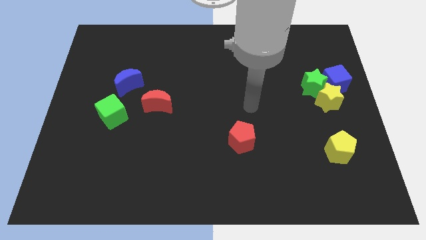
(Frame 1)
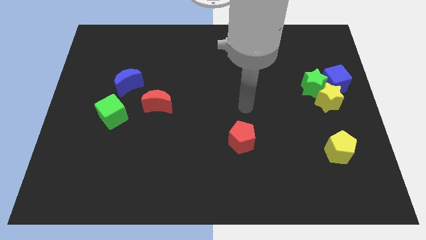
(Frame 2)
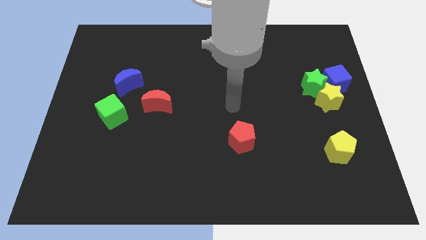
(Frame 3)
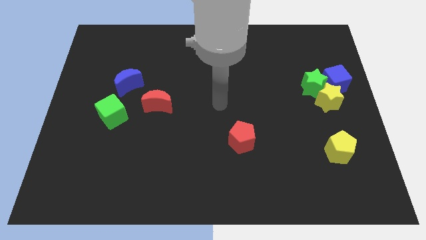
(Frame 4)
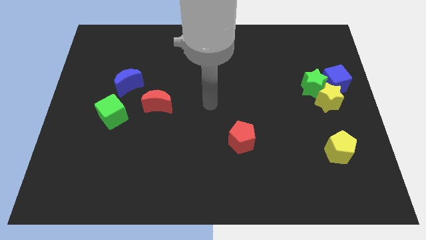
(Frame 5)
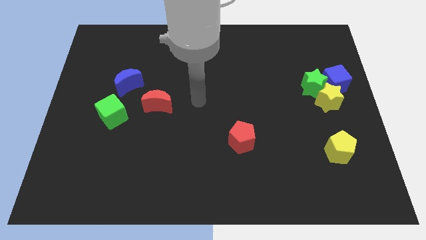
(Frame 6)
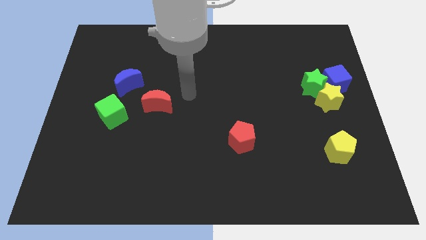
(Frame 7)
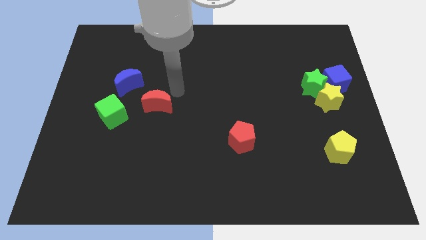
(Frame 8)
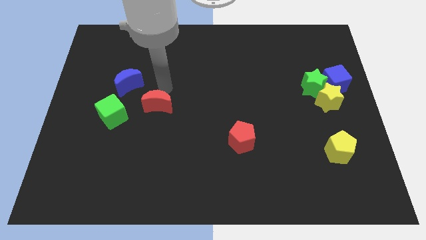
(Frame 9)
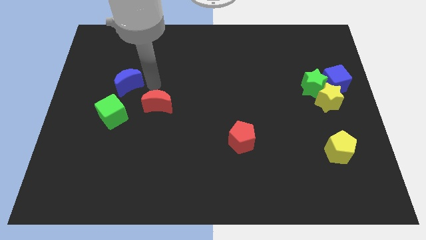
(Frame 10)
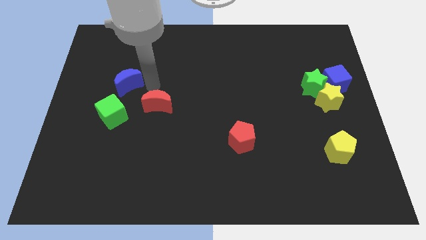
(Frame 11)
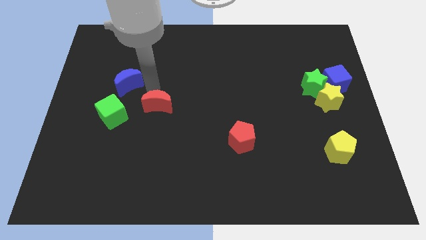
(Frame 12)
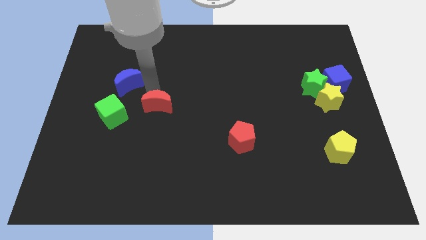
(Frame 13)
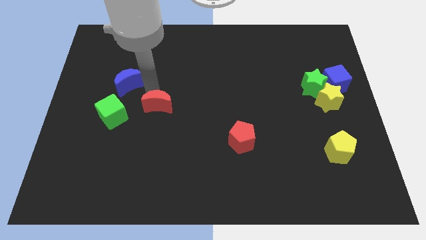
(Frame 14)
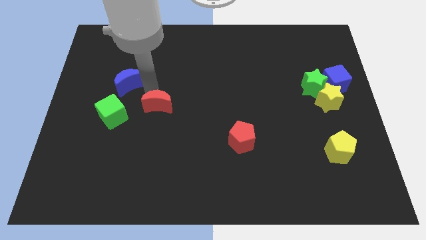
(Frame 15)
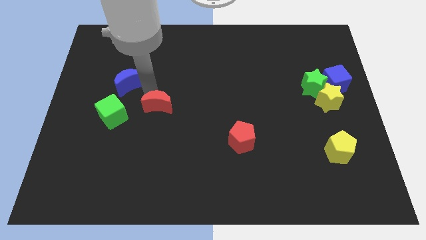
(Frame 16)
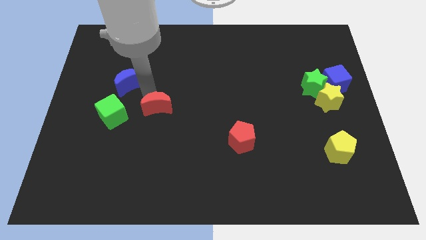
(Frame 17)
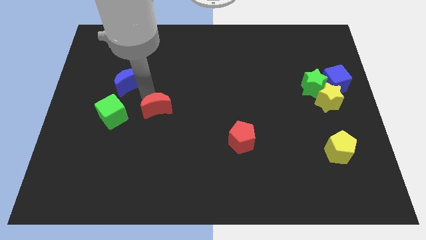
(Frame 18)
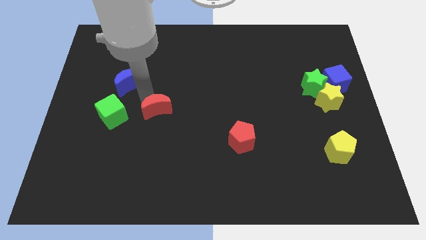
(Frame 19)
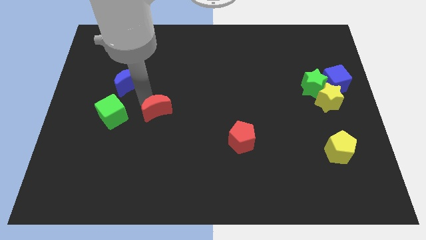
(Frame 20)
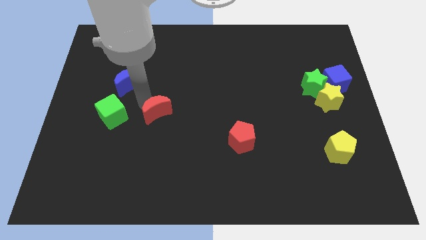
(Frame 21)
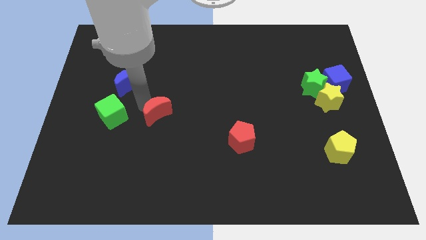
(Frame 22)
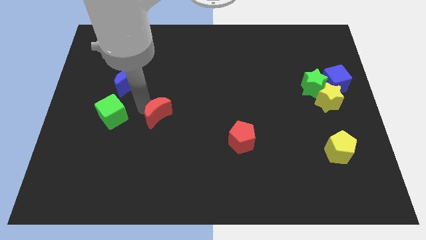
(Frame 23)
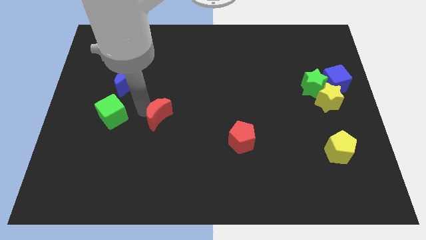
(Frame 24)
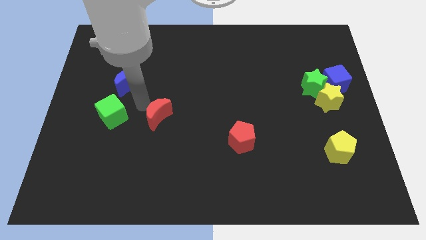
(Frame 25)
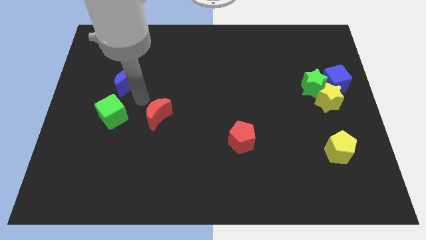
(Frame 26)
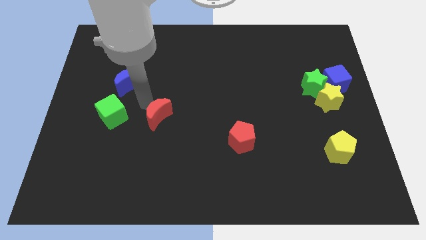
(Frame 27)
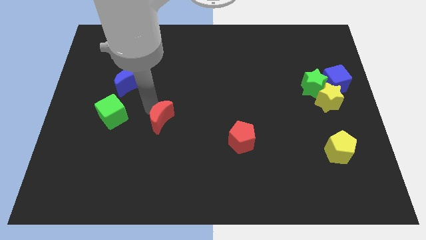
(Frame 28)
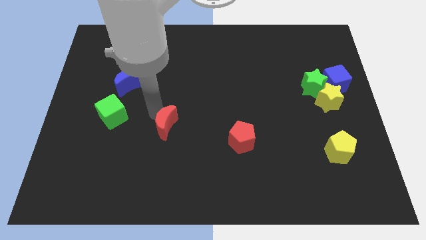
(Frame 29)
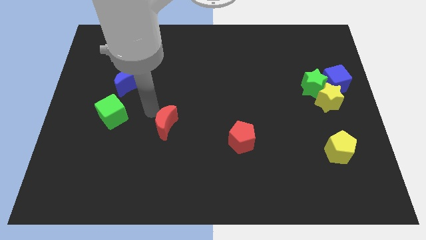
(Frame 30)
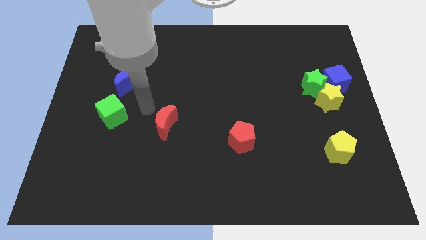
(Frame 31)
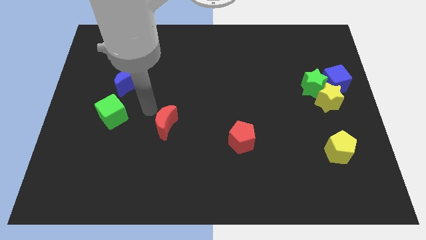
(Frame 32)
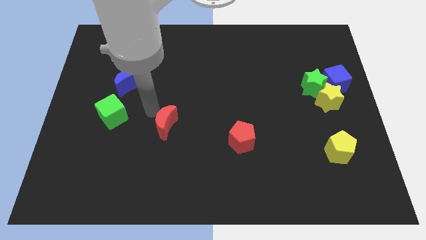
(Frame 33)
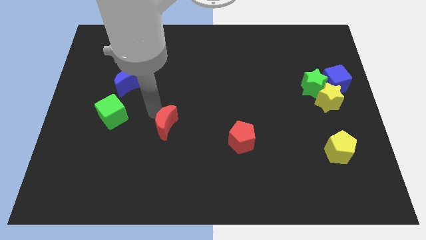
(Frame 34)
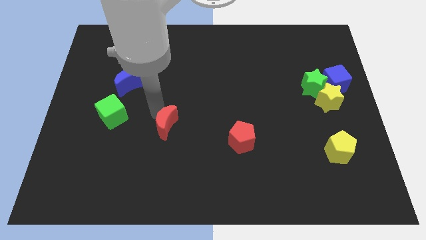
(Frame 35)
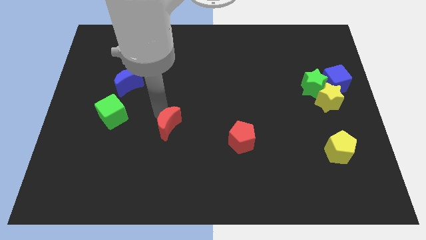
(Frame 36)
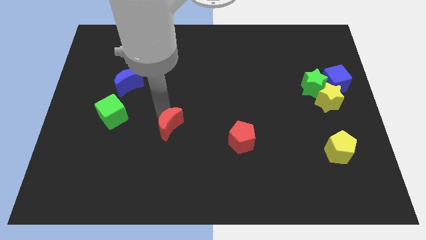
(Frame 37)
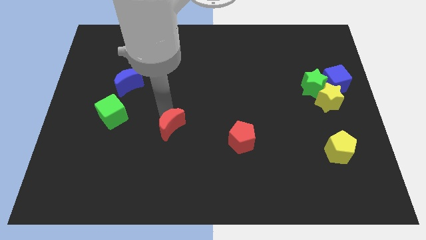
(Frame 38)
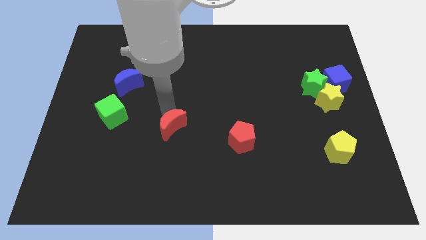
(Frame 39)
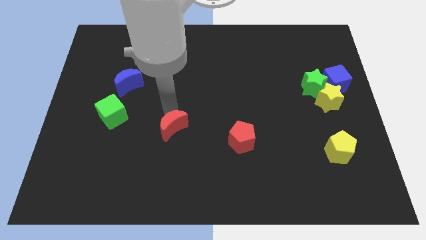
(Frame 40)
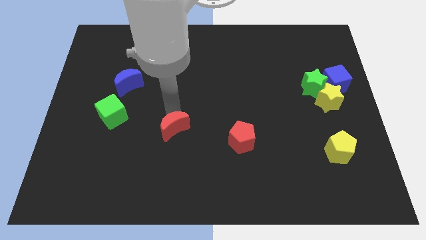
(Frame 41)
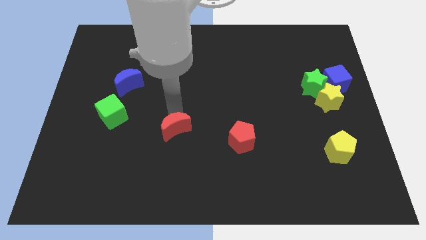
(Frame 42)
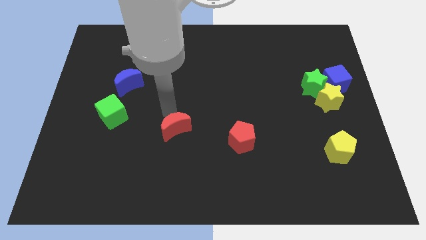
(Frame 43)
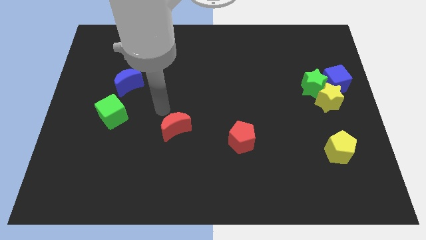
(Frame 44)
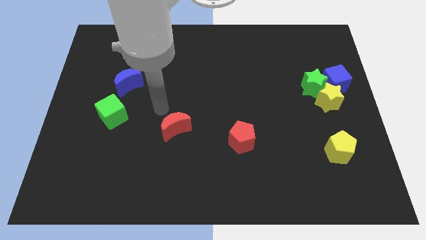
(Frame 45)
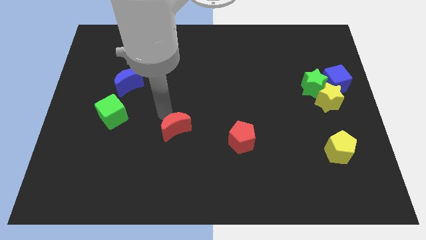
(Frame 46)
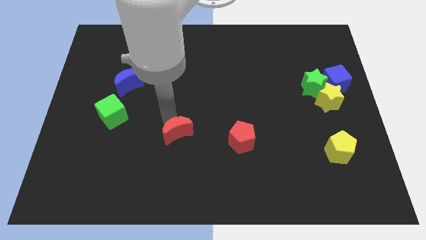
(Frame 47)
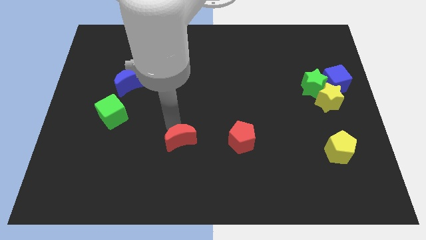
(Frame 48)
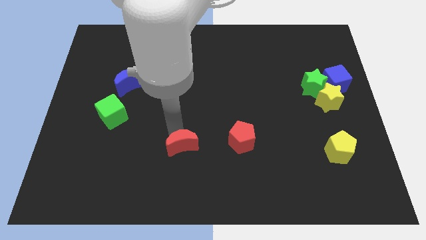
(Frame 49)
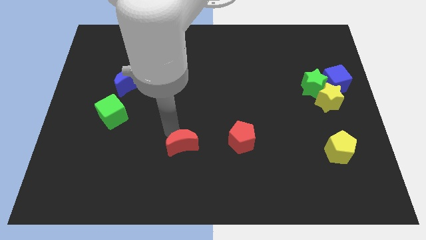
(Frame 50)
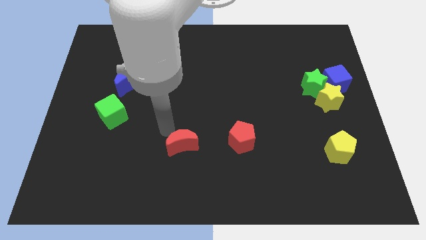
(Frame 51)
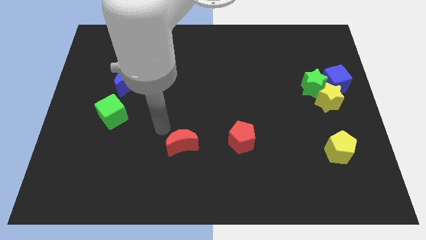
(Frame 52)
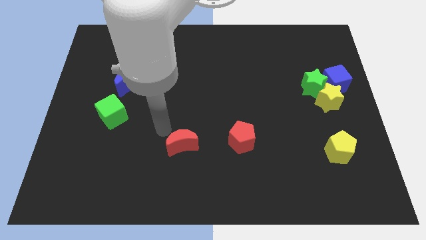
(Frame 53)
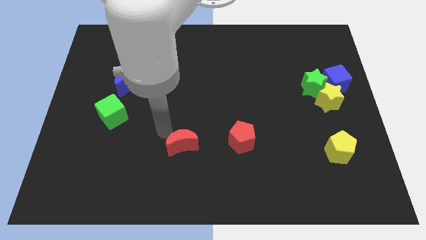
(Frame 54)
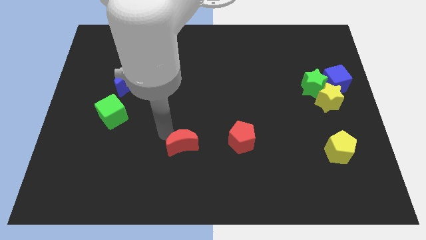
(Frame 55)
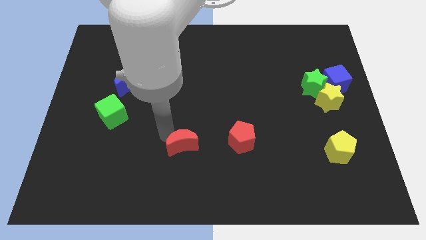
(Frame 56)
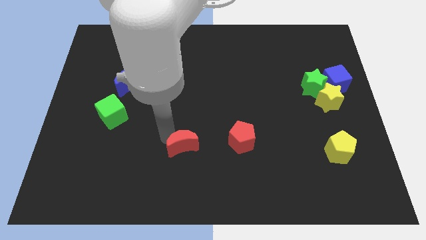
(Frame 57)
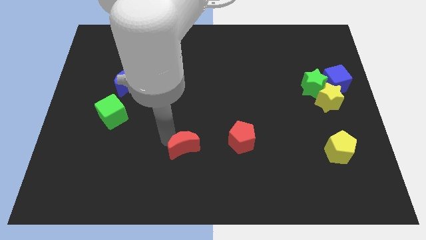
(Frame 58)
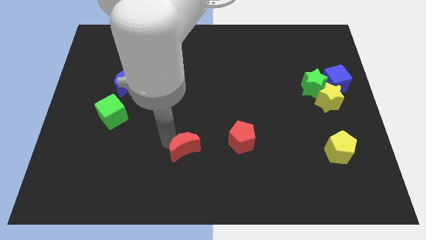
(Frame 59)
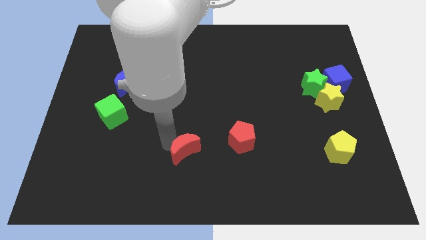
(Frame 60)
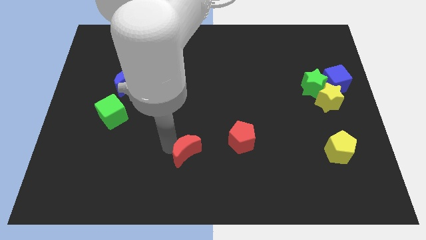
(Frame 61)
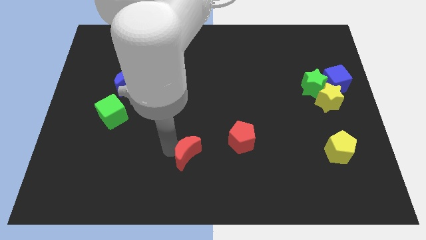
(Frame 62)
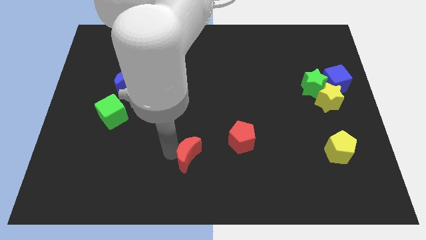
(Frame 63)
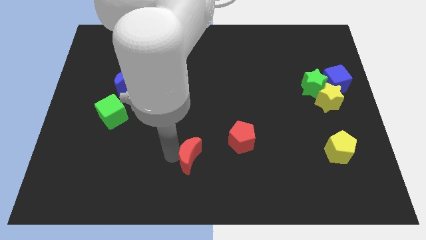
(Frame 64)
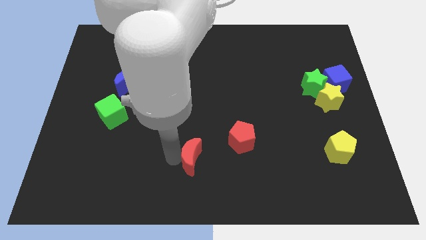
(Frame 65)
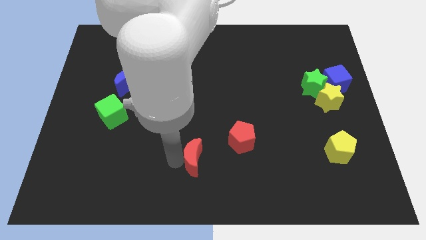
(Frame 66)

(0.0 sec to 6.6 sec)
push the red moon diagonally down and to the left of the red pentagon
